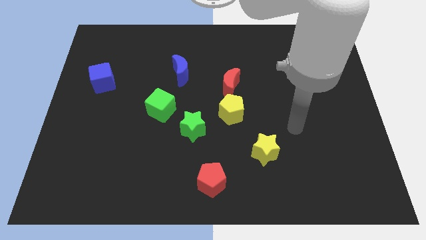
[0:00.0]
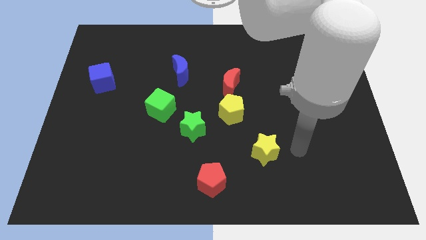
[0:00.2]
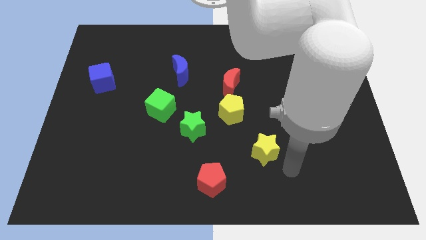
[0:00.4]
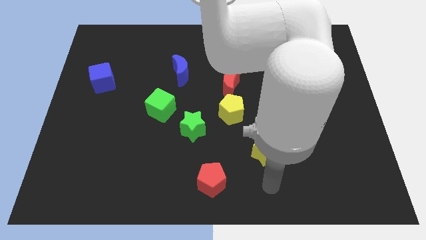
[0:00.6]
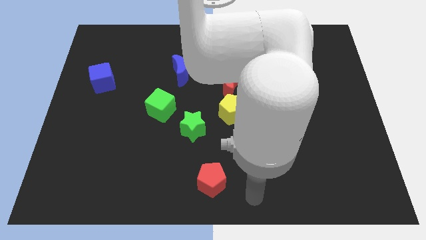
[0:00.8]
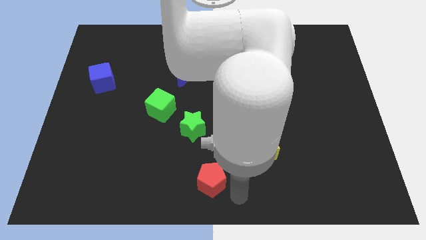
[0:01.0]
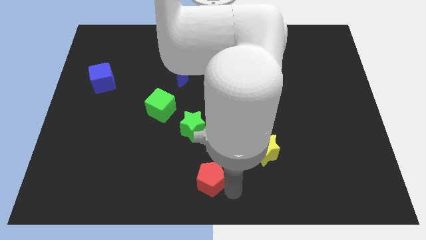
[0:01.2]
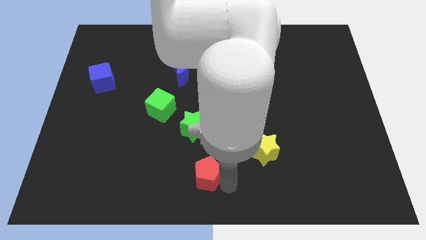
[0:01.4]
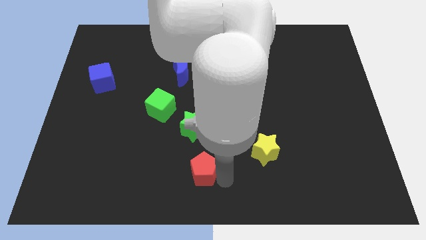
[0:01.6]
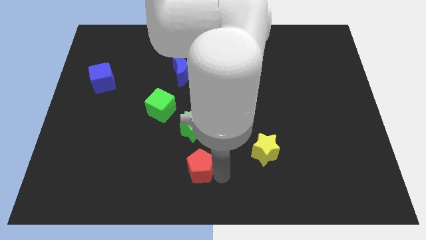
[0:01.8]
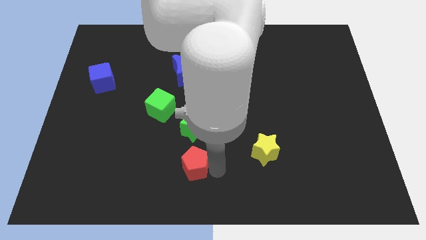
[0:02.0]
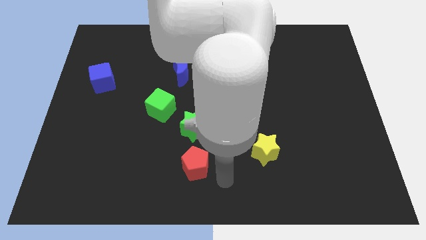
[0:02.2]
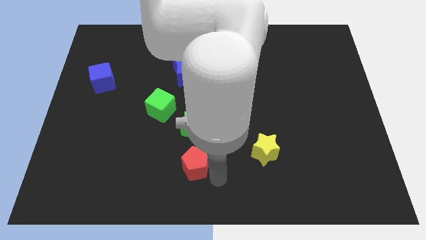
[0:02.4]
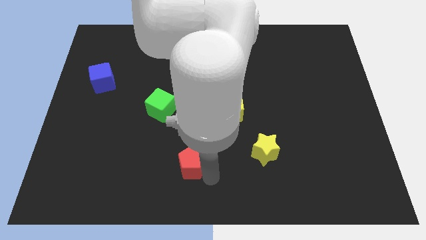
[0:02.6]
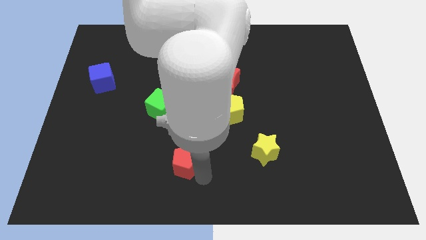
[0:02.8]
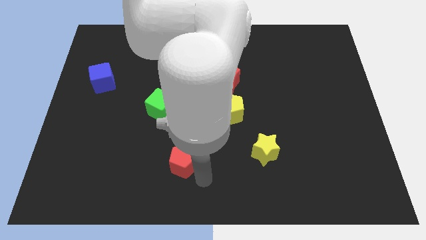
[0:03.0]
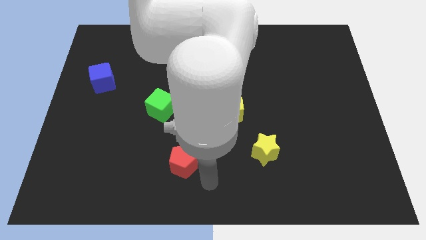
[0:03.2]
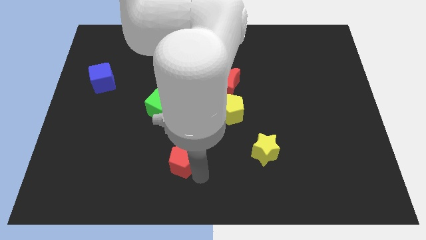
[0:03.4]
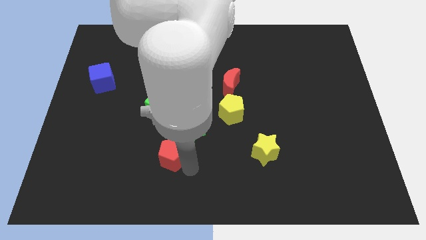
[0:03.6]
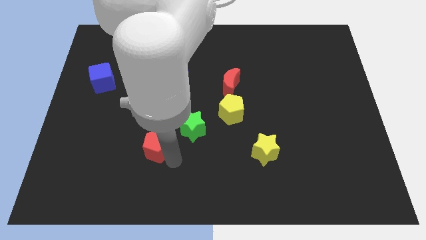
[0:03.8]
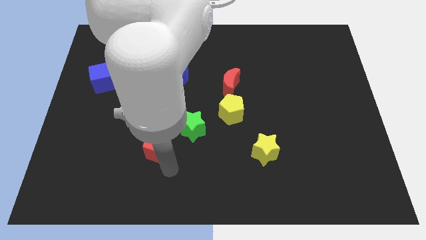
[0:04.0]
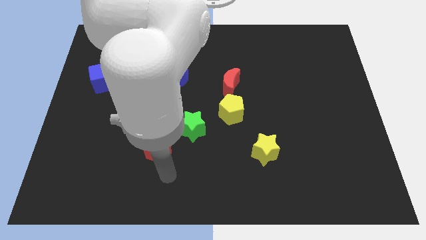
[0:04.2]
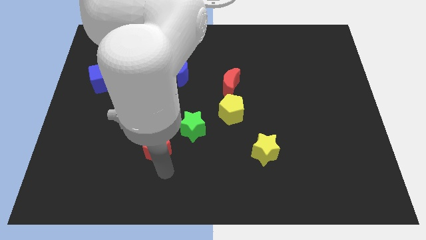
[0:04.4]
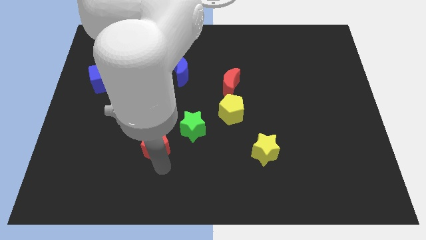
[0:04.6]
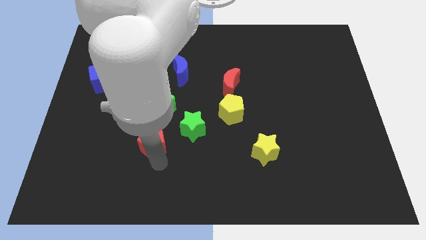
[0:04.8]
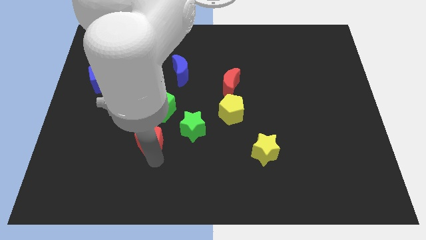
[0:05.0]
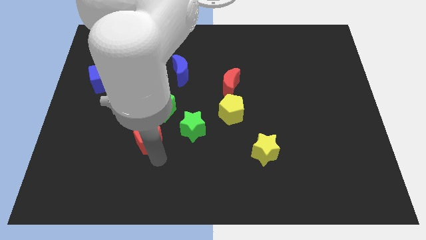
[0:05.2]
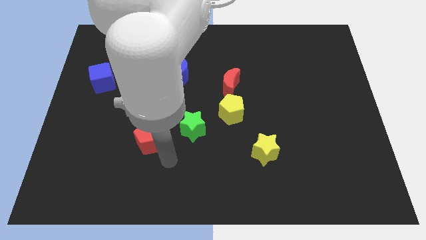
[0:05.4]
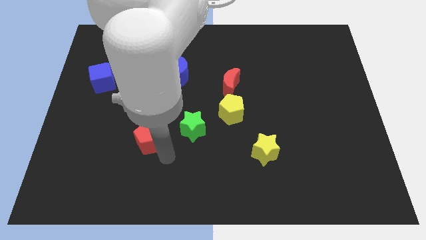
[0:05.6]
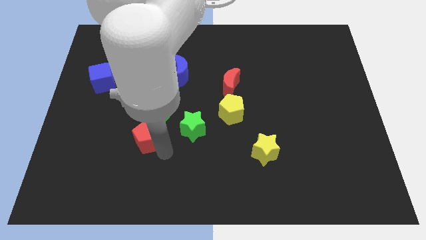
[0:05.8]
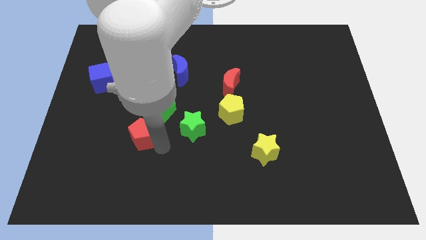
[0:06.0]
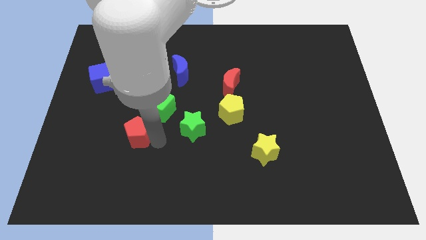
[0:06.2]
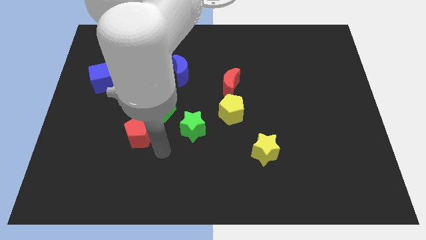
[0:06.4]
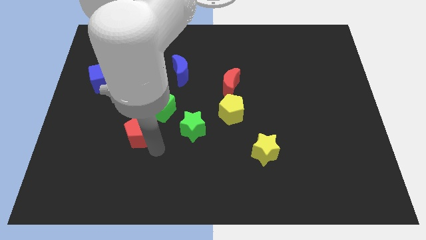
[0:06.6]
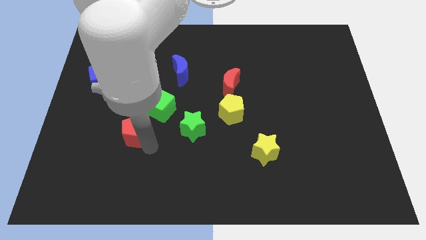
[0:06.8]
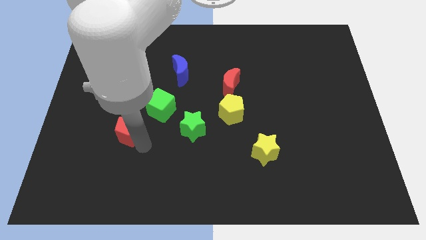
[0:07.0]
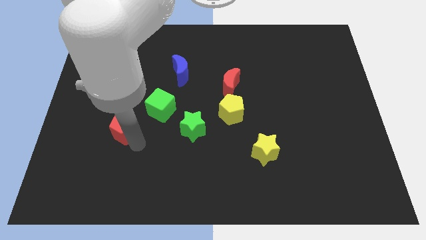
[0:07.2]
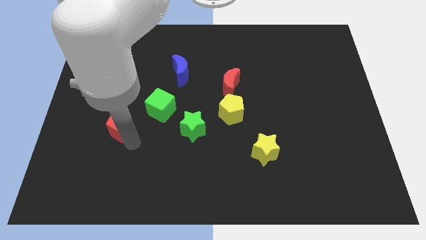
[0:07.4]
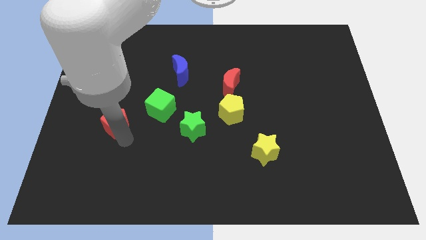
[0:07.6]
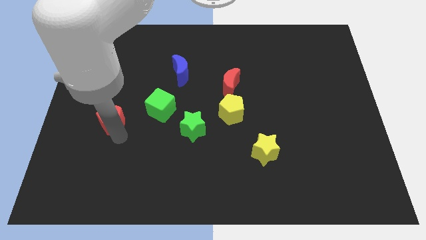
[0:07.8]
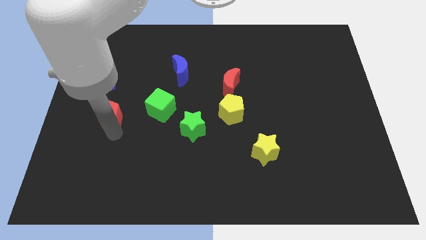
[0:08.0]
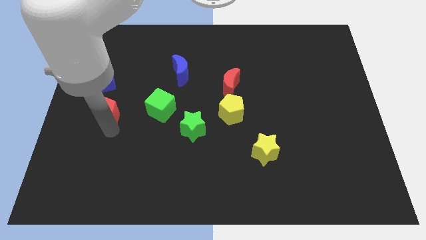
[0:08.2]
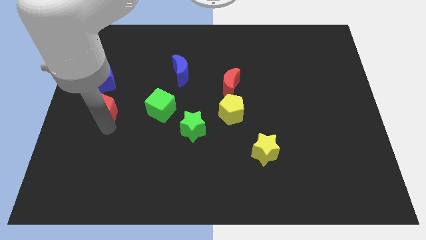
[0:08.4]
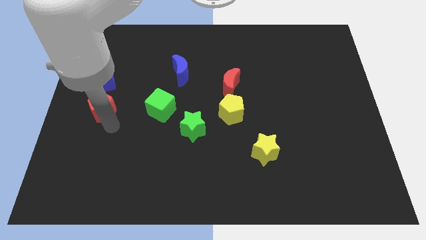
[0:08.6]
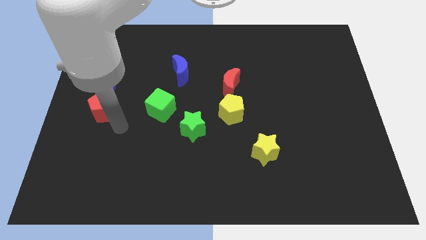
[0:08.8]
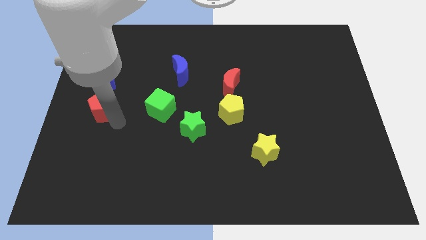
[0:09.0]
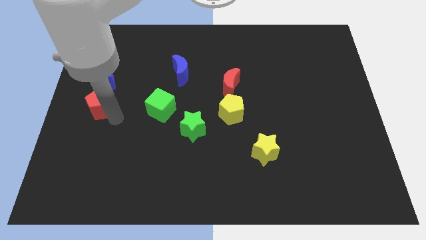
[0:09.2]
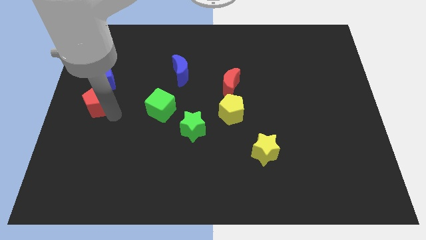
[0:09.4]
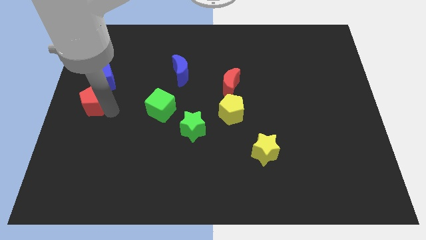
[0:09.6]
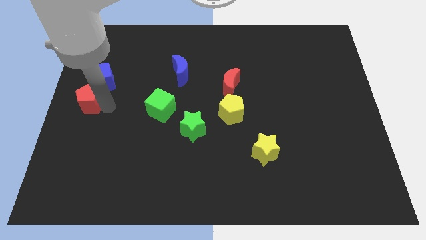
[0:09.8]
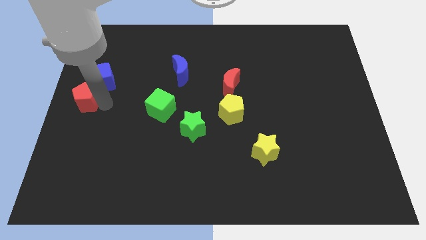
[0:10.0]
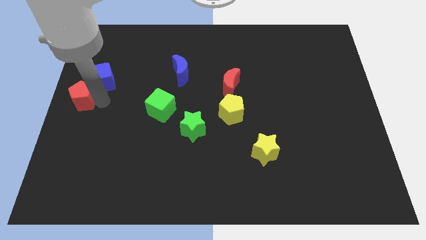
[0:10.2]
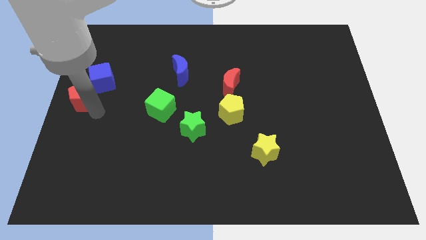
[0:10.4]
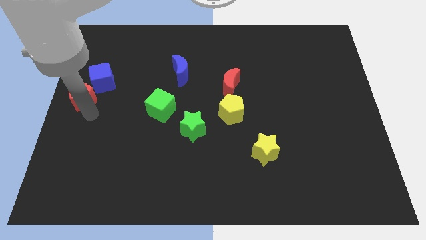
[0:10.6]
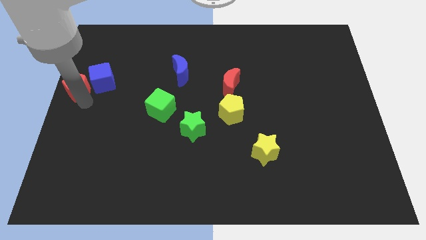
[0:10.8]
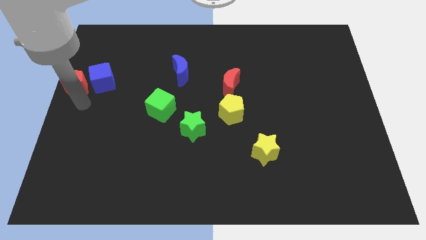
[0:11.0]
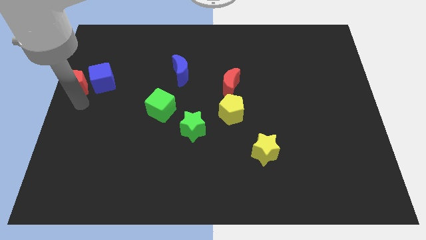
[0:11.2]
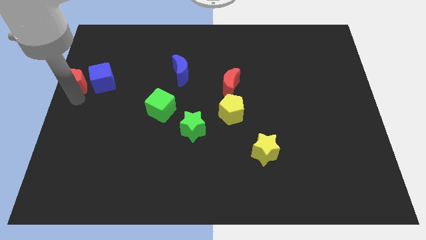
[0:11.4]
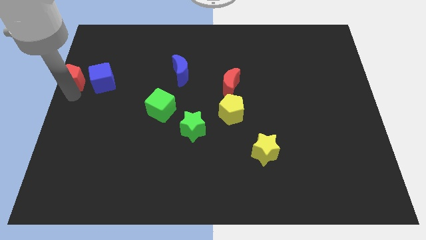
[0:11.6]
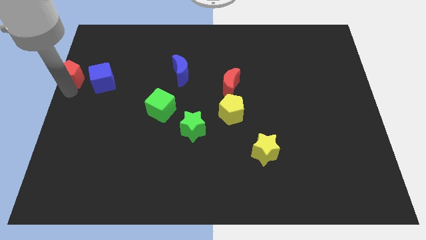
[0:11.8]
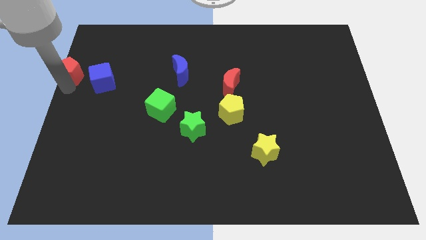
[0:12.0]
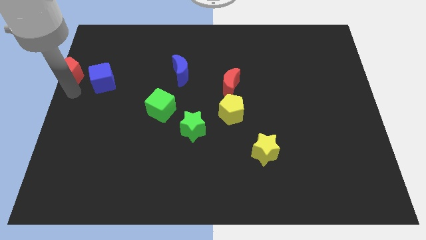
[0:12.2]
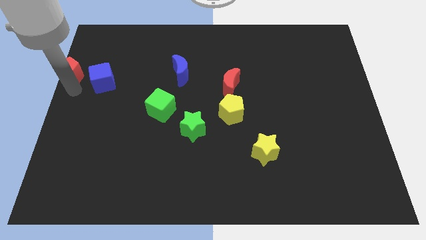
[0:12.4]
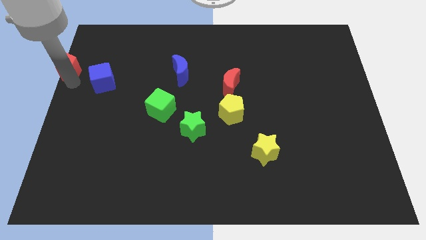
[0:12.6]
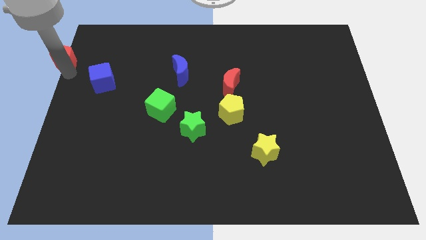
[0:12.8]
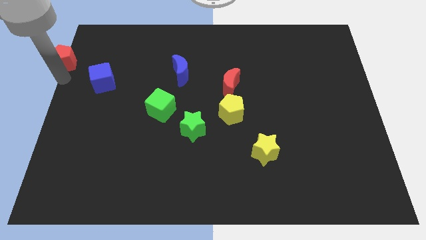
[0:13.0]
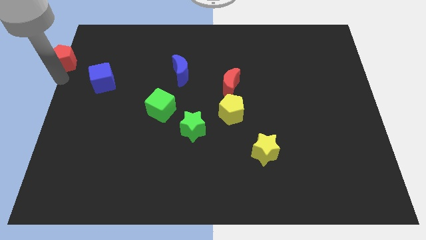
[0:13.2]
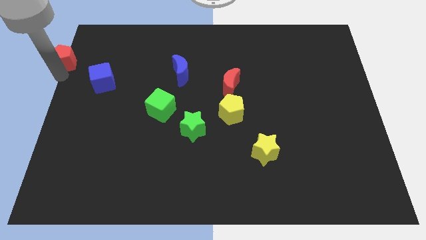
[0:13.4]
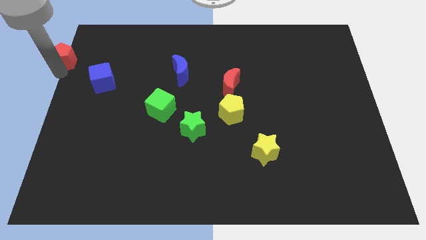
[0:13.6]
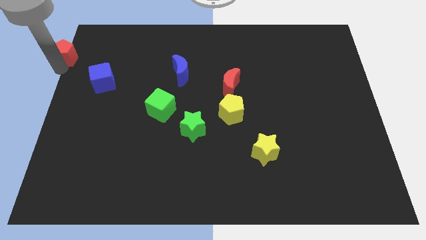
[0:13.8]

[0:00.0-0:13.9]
put the red pentagon to the upper left corner

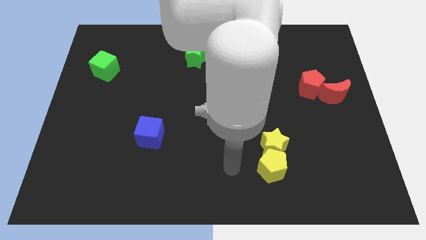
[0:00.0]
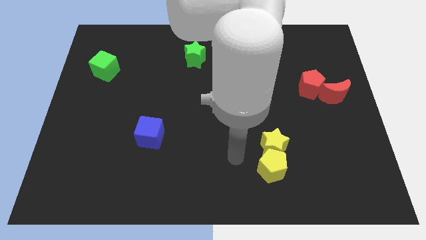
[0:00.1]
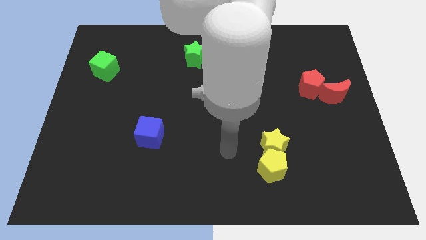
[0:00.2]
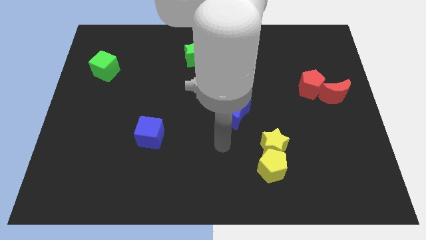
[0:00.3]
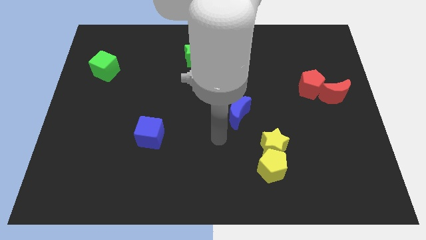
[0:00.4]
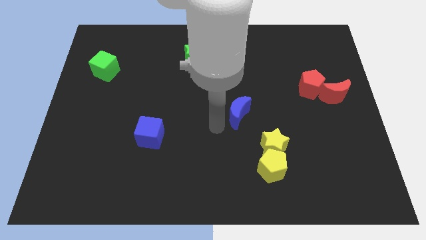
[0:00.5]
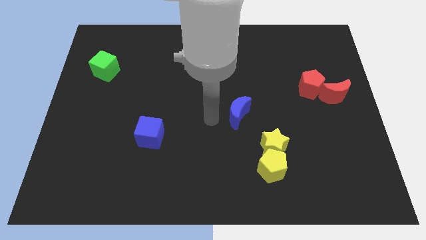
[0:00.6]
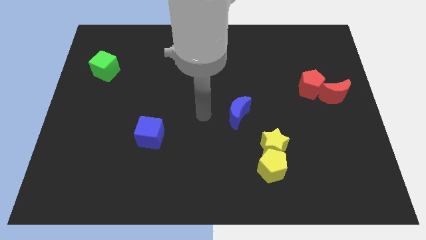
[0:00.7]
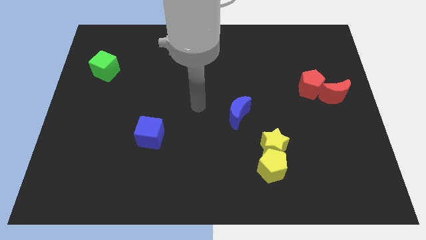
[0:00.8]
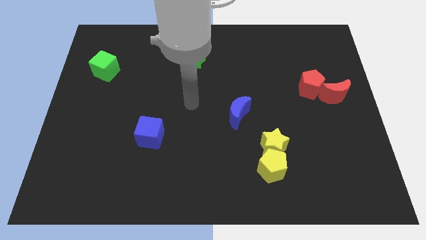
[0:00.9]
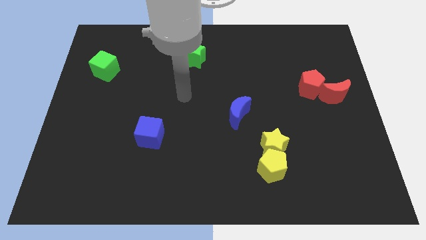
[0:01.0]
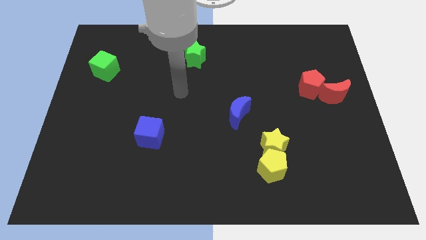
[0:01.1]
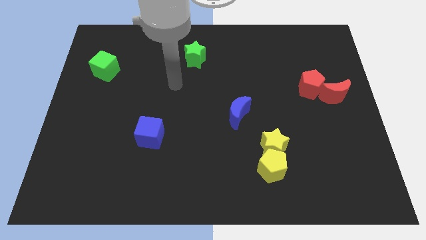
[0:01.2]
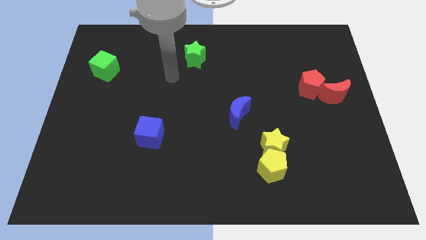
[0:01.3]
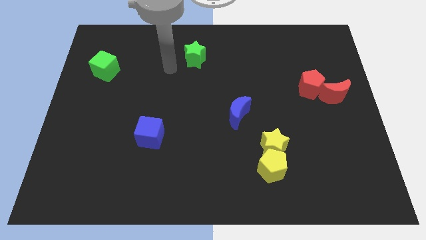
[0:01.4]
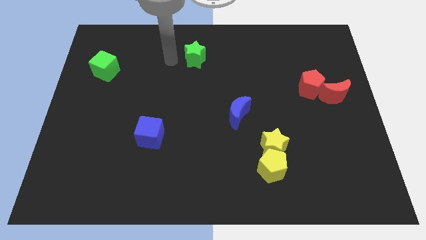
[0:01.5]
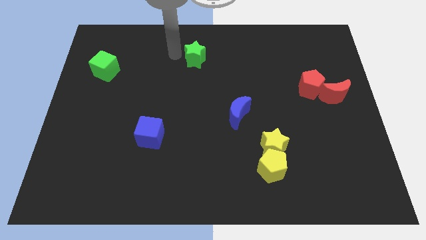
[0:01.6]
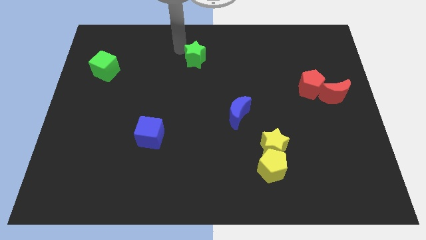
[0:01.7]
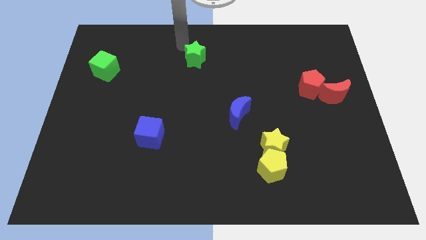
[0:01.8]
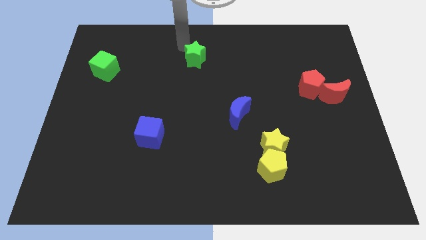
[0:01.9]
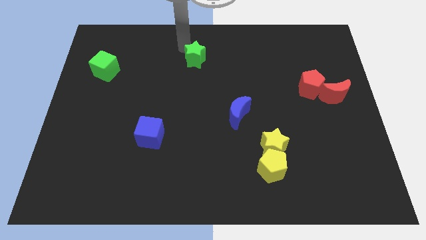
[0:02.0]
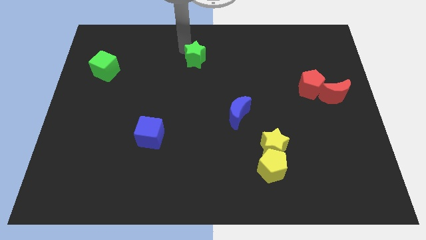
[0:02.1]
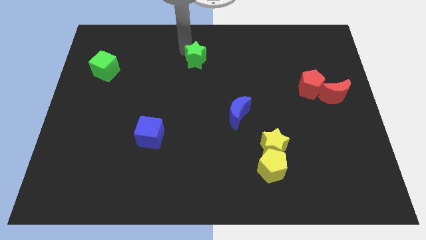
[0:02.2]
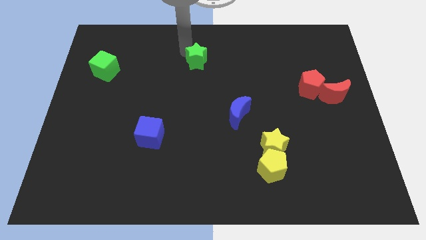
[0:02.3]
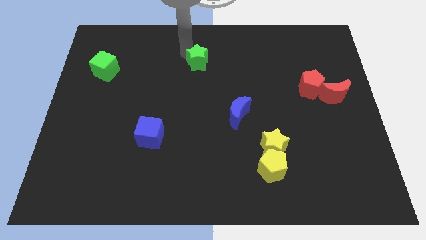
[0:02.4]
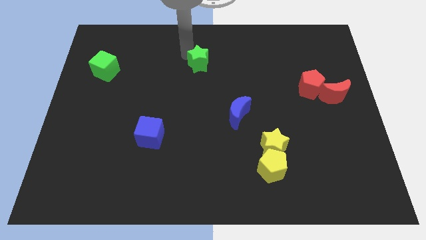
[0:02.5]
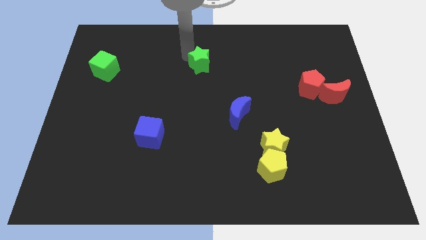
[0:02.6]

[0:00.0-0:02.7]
move the green star to the center of the board
